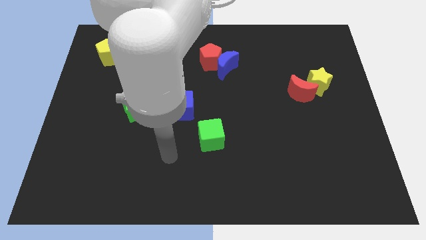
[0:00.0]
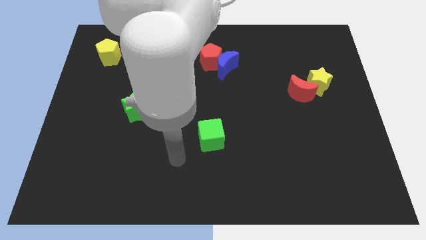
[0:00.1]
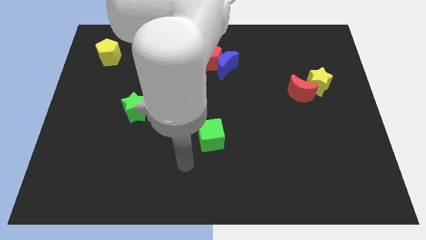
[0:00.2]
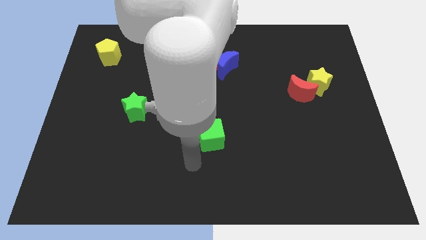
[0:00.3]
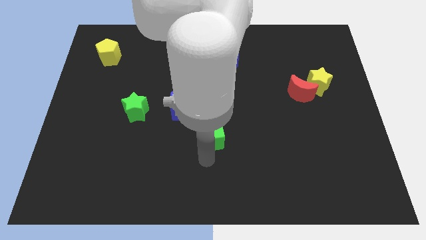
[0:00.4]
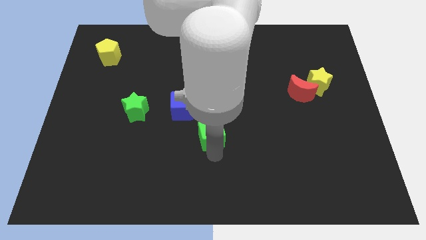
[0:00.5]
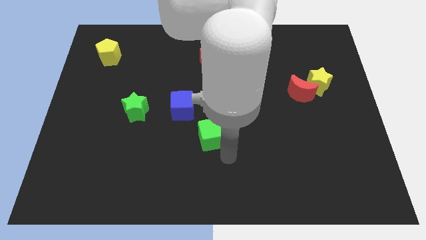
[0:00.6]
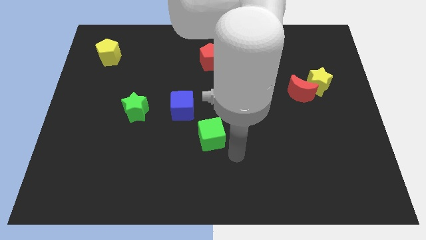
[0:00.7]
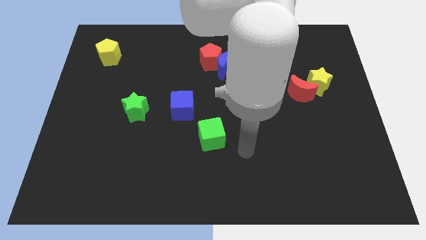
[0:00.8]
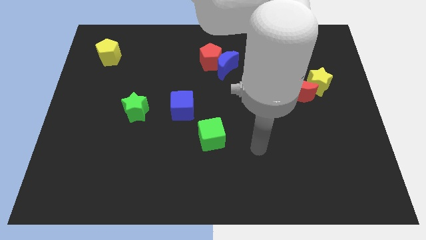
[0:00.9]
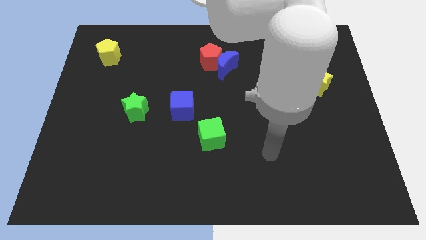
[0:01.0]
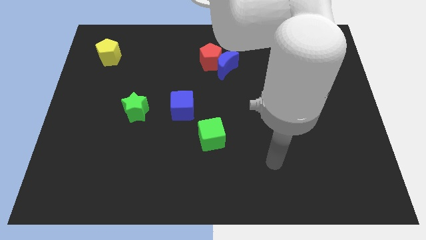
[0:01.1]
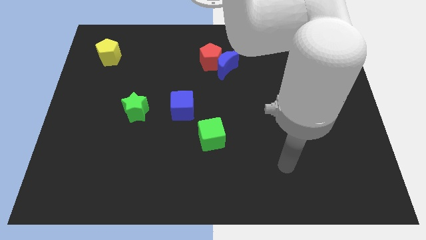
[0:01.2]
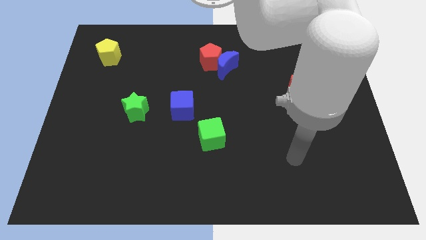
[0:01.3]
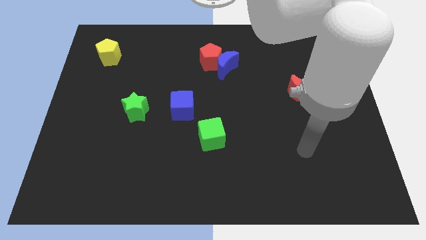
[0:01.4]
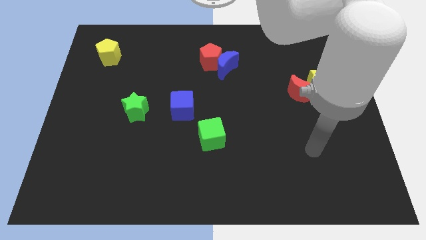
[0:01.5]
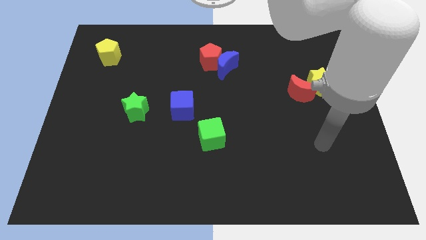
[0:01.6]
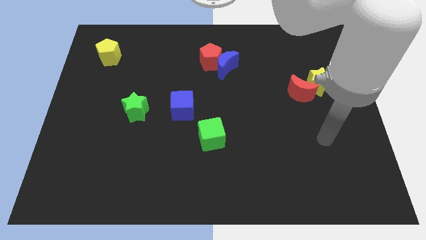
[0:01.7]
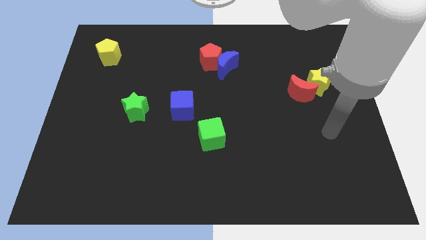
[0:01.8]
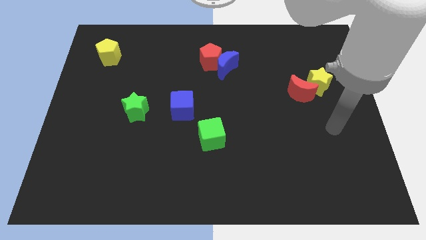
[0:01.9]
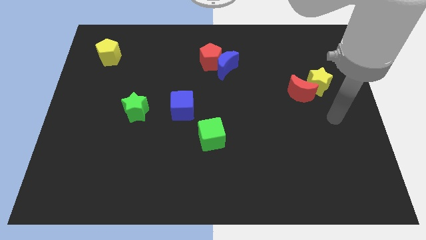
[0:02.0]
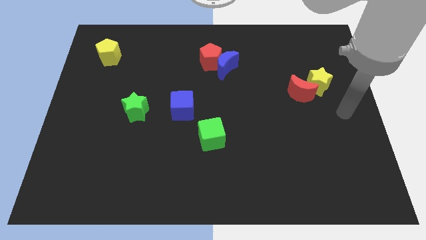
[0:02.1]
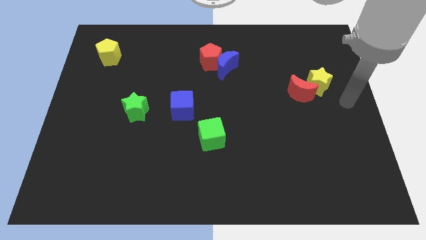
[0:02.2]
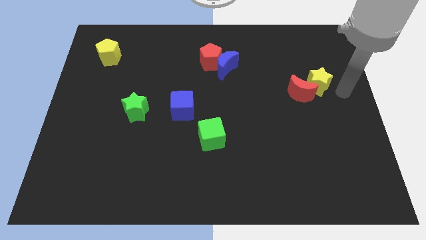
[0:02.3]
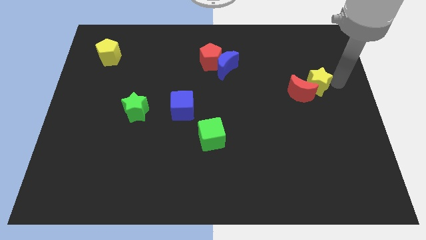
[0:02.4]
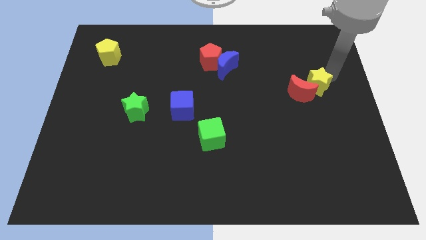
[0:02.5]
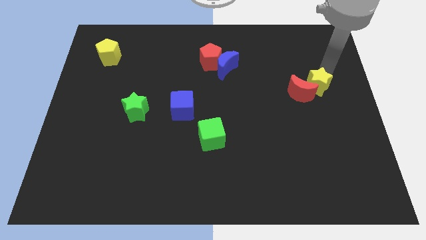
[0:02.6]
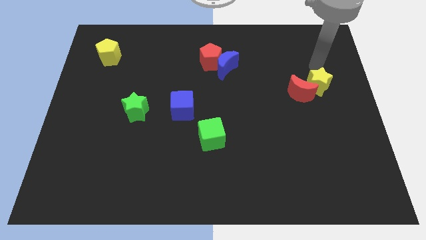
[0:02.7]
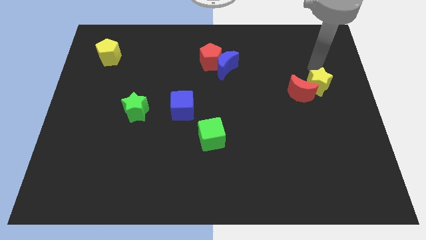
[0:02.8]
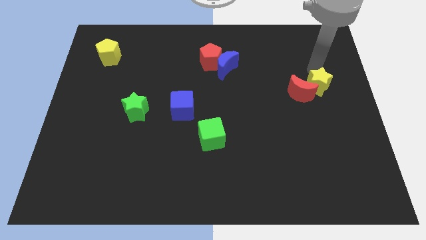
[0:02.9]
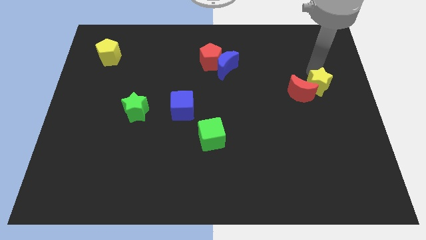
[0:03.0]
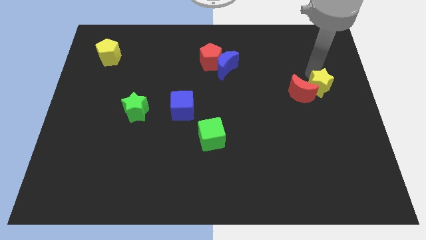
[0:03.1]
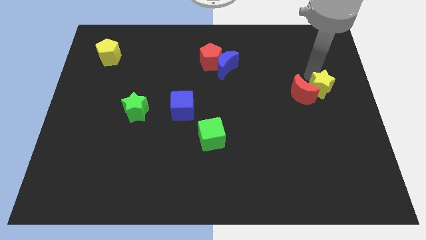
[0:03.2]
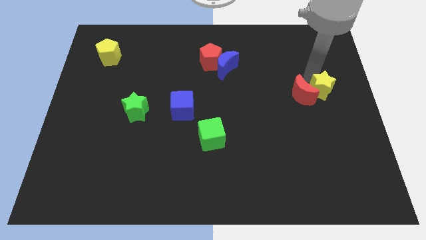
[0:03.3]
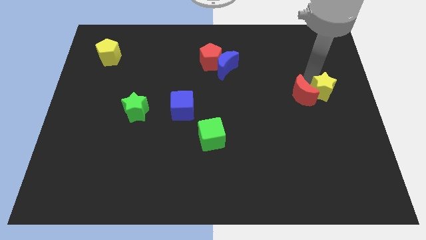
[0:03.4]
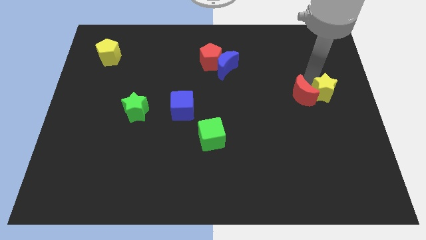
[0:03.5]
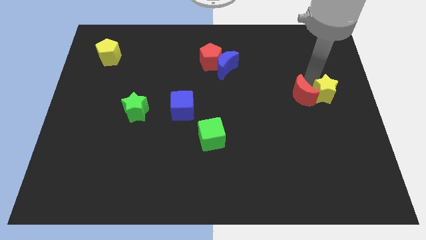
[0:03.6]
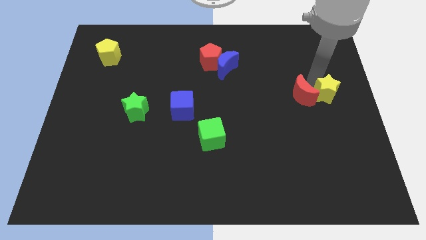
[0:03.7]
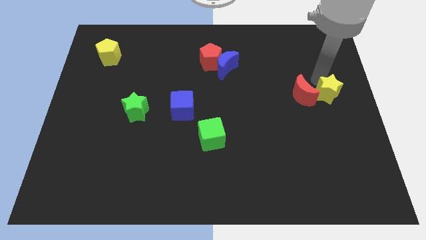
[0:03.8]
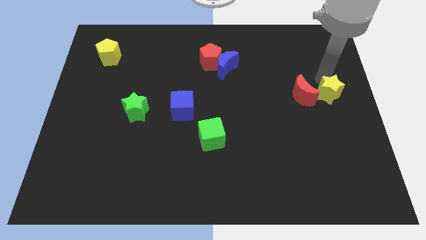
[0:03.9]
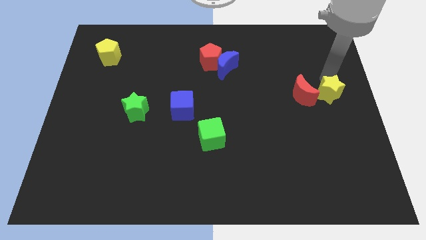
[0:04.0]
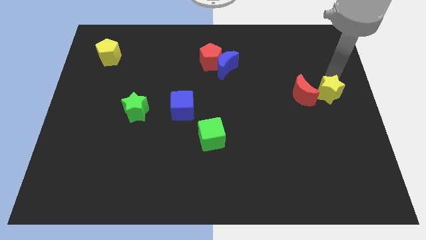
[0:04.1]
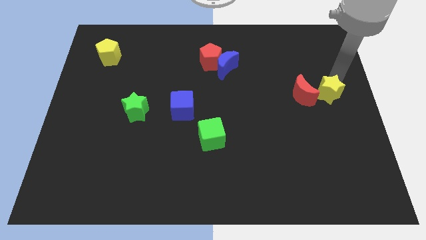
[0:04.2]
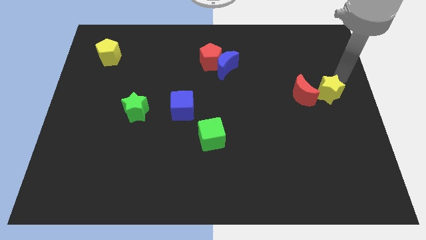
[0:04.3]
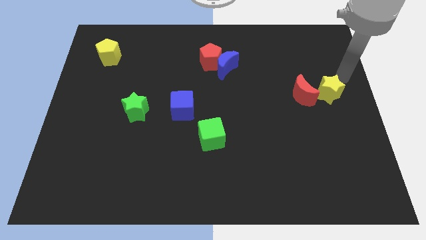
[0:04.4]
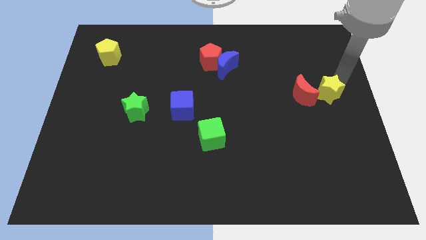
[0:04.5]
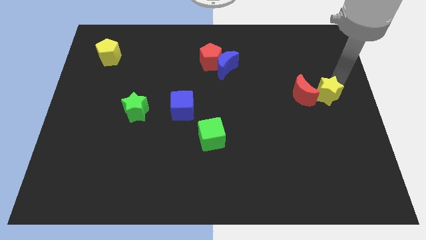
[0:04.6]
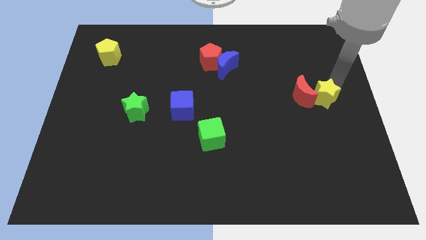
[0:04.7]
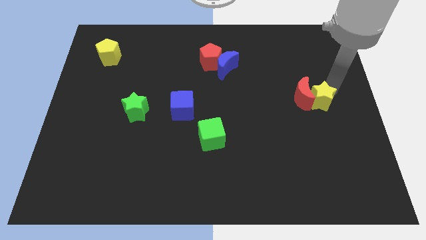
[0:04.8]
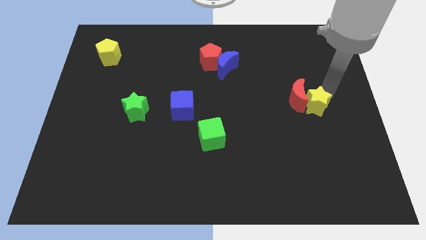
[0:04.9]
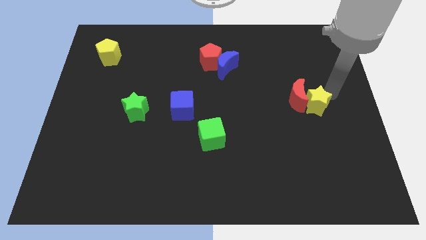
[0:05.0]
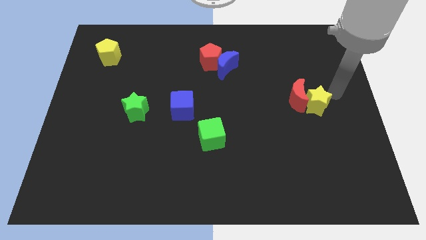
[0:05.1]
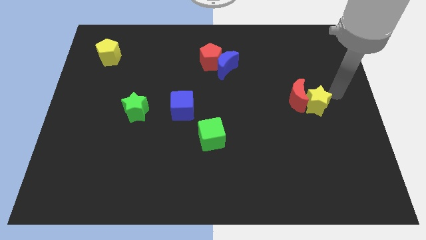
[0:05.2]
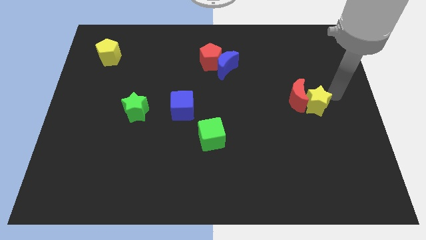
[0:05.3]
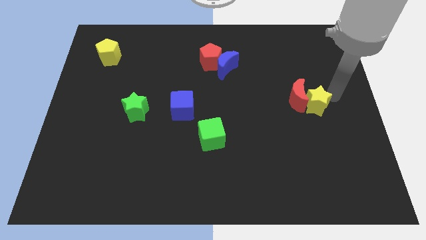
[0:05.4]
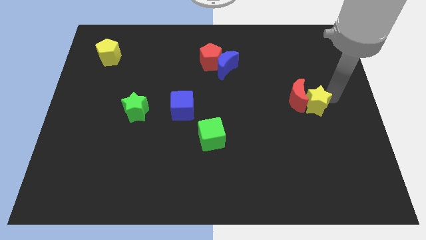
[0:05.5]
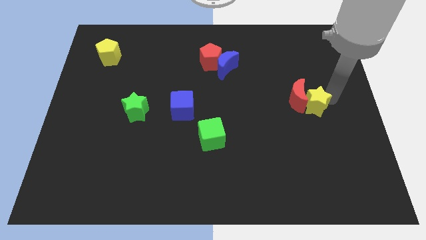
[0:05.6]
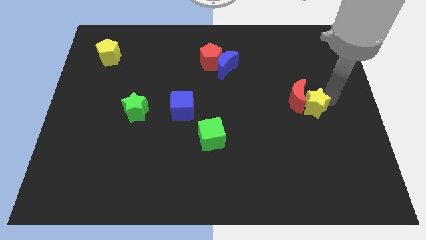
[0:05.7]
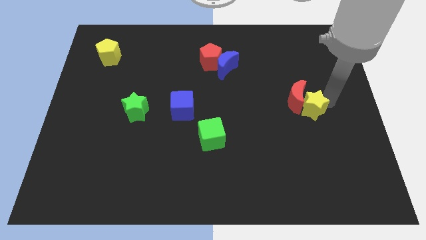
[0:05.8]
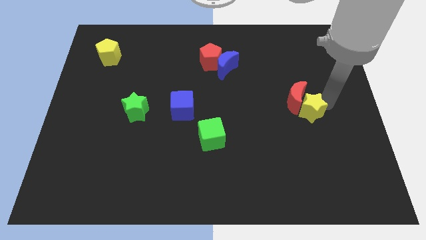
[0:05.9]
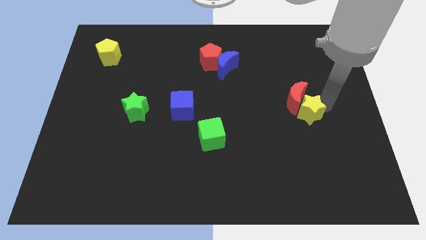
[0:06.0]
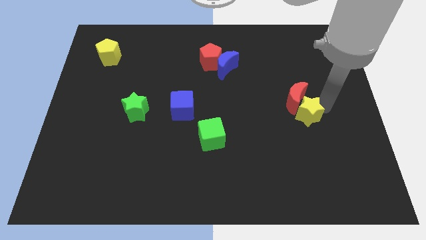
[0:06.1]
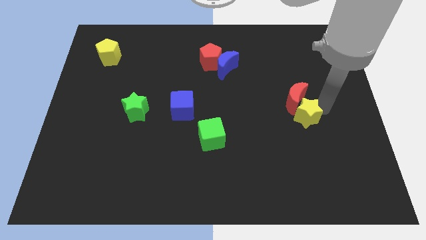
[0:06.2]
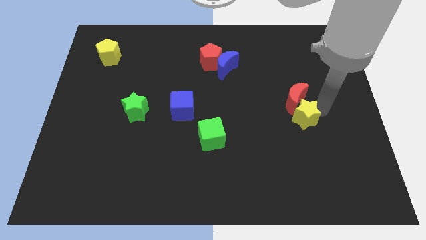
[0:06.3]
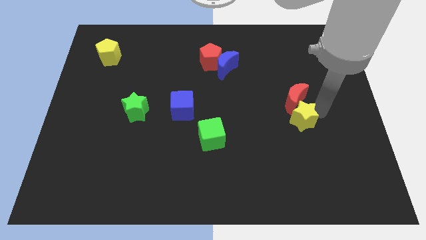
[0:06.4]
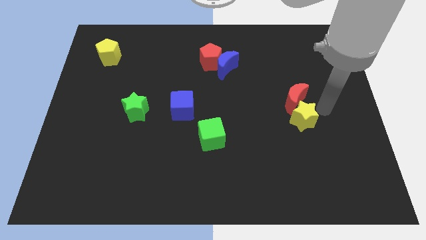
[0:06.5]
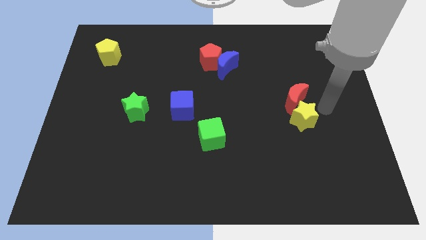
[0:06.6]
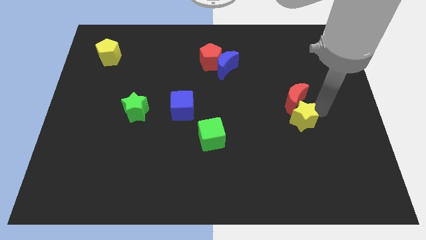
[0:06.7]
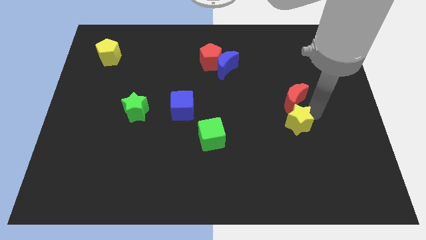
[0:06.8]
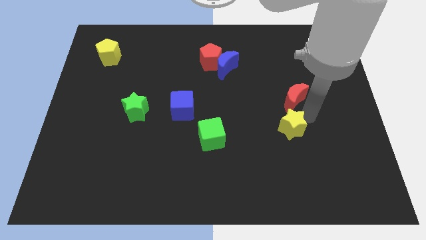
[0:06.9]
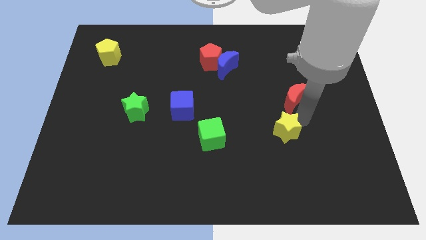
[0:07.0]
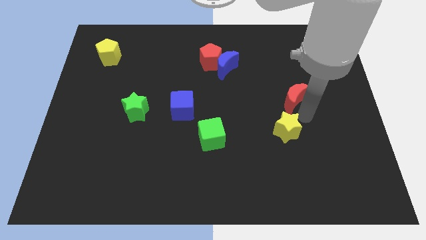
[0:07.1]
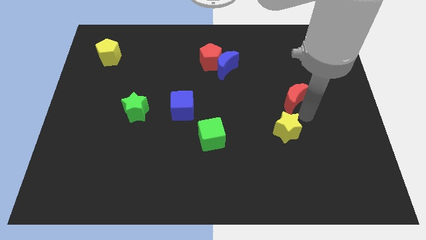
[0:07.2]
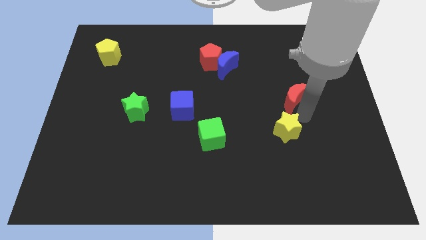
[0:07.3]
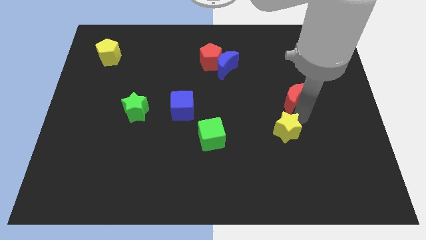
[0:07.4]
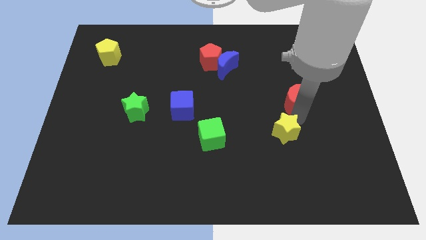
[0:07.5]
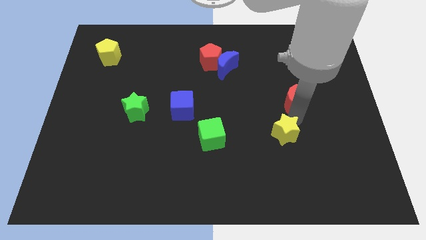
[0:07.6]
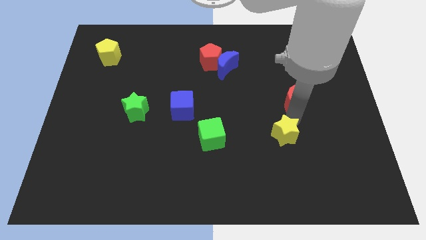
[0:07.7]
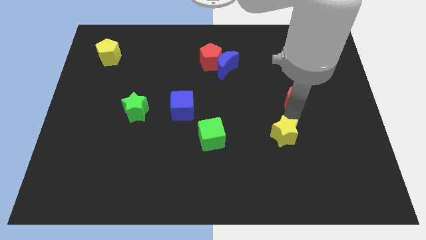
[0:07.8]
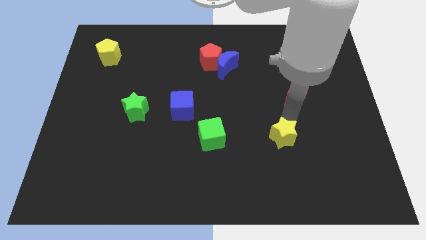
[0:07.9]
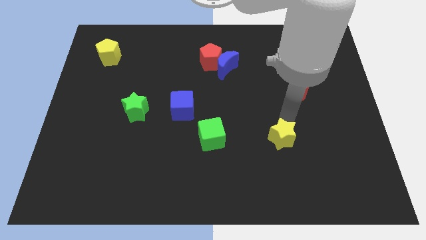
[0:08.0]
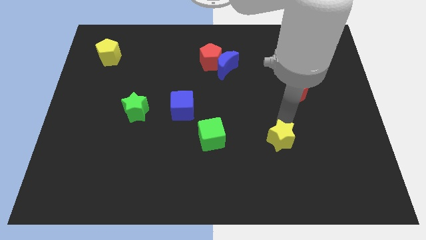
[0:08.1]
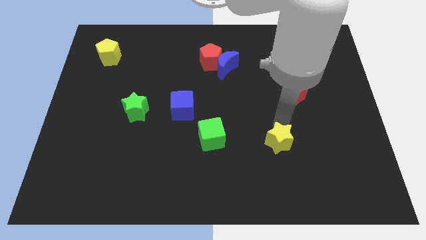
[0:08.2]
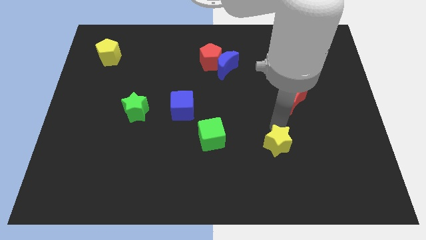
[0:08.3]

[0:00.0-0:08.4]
push the yellow star downwards and to the left
